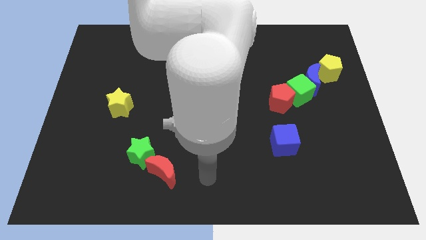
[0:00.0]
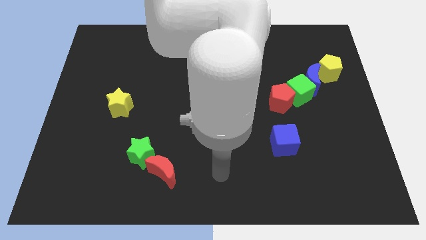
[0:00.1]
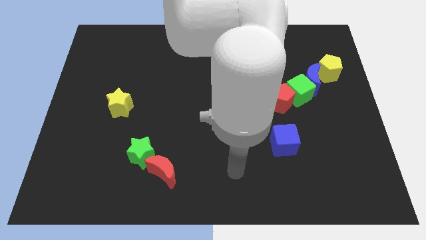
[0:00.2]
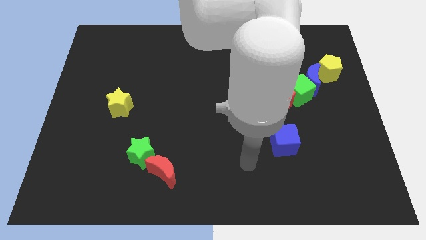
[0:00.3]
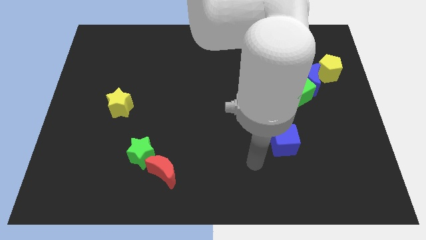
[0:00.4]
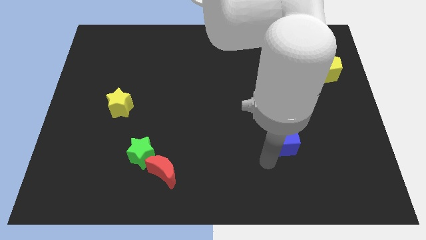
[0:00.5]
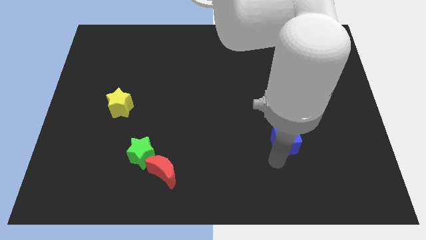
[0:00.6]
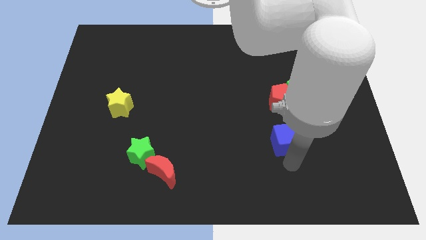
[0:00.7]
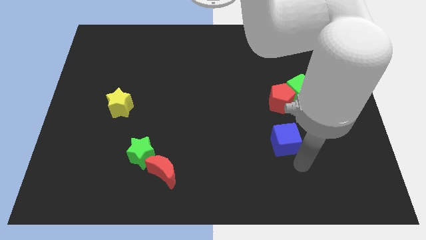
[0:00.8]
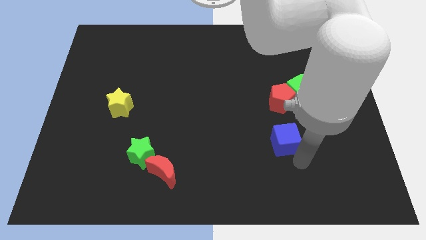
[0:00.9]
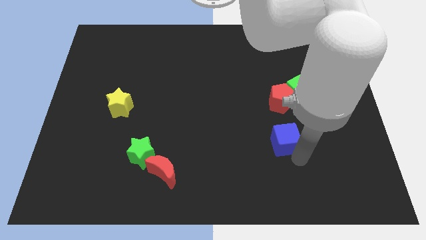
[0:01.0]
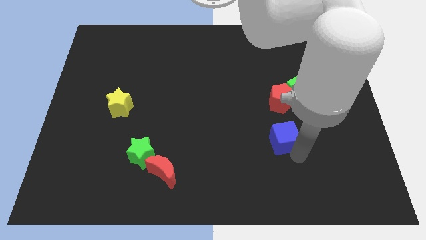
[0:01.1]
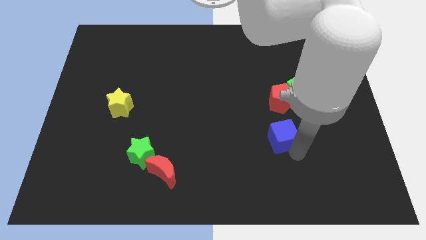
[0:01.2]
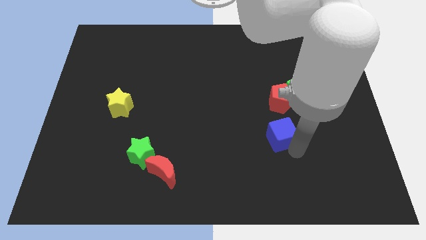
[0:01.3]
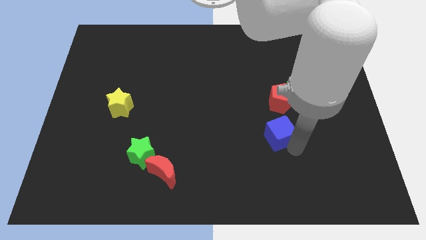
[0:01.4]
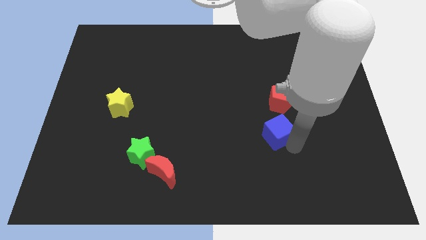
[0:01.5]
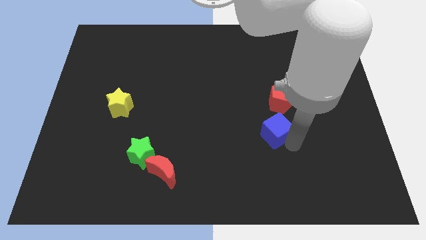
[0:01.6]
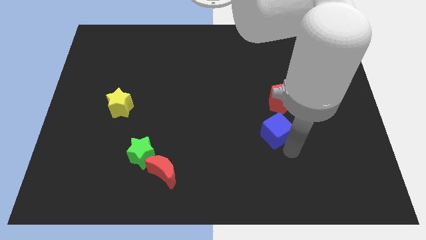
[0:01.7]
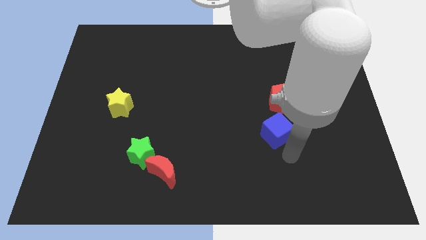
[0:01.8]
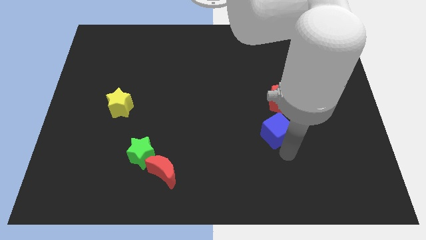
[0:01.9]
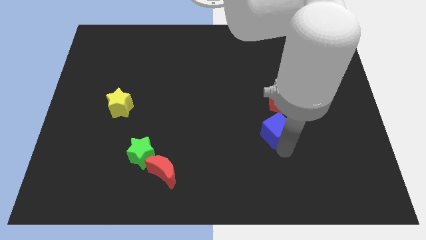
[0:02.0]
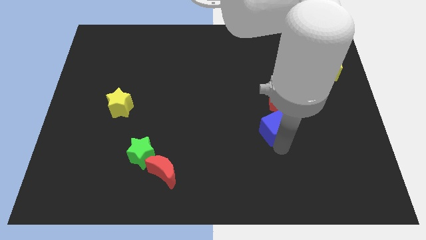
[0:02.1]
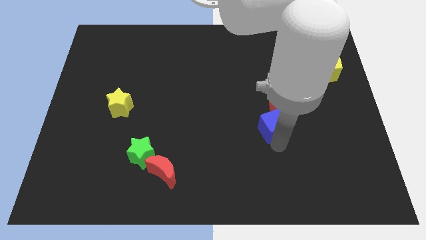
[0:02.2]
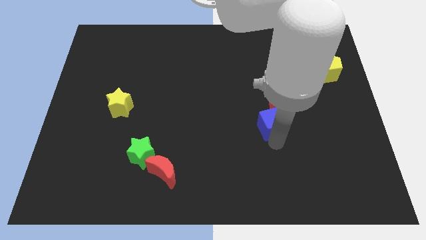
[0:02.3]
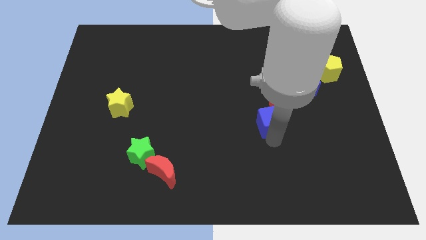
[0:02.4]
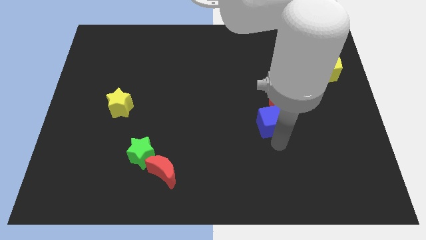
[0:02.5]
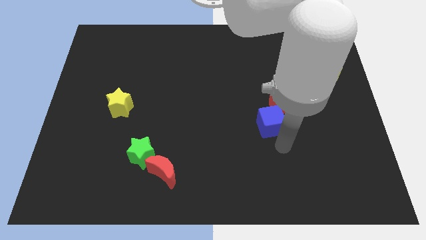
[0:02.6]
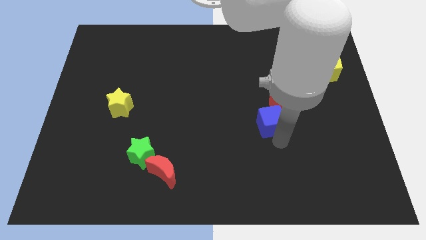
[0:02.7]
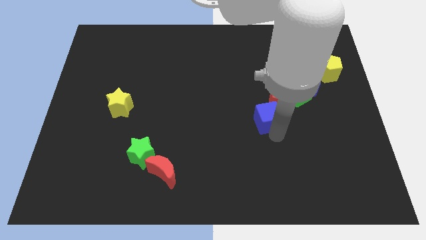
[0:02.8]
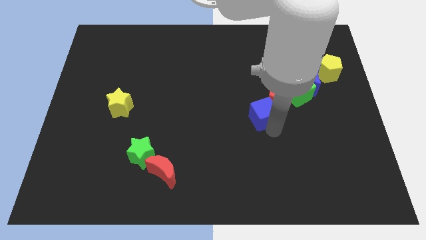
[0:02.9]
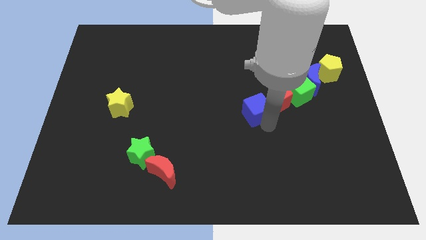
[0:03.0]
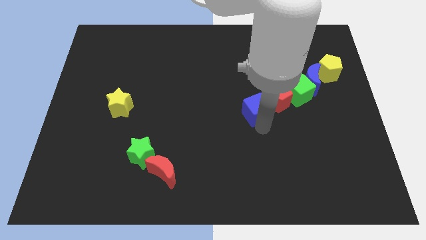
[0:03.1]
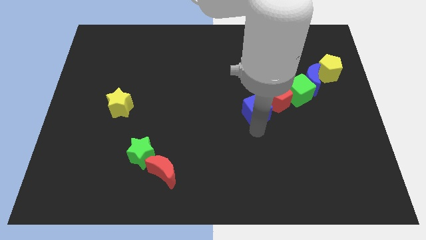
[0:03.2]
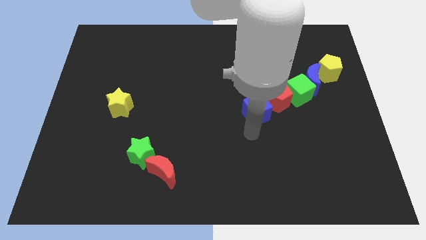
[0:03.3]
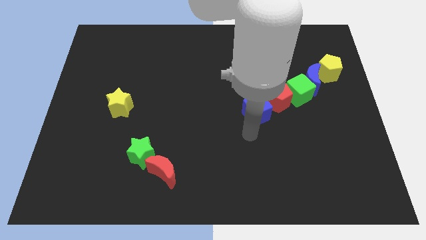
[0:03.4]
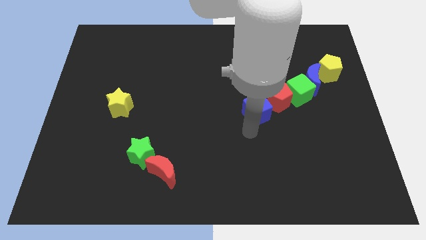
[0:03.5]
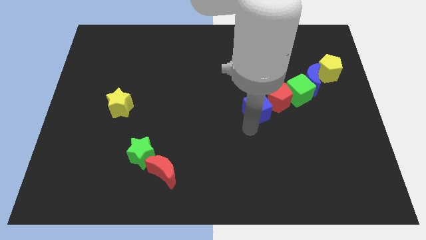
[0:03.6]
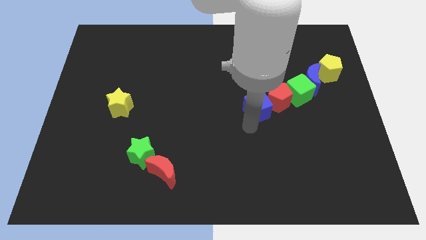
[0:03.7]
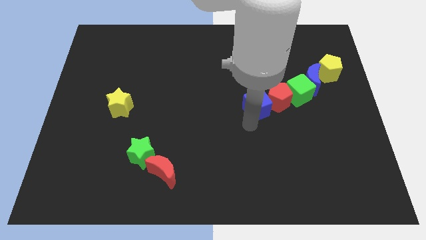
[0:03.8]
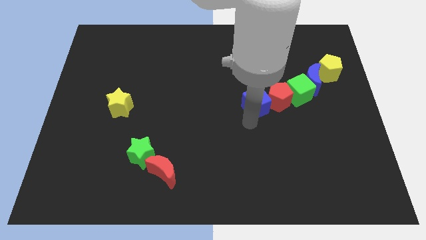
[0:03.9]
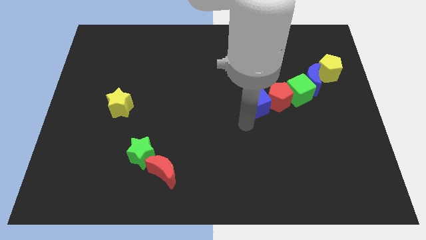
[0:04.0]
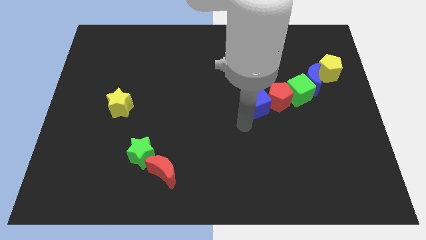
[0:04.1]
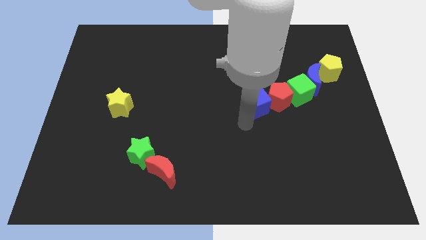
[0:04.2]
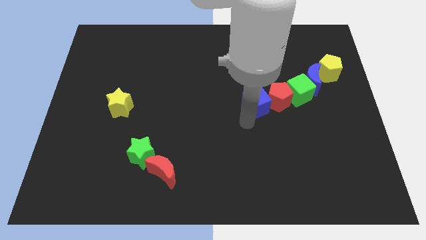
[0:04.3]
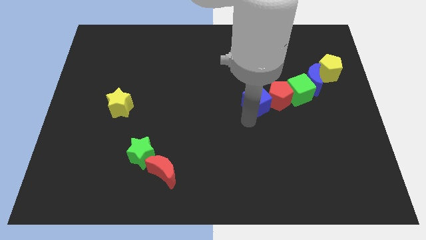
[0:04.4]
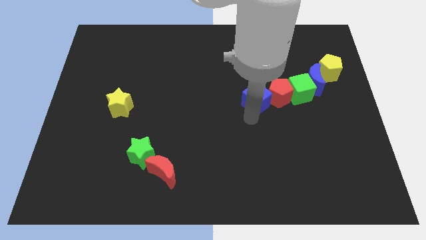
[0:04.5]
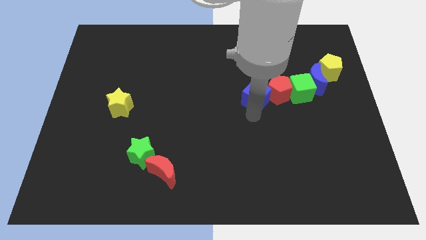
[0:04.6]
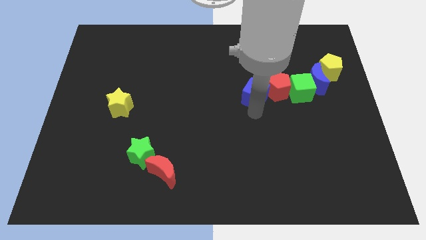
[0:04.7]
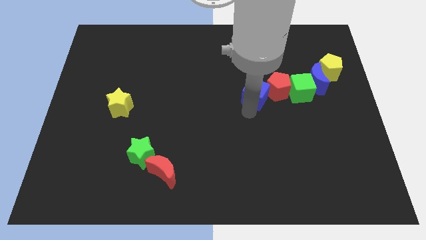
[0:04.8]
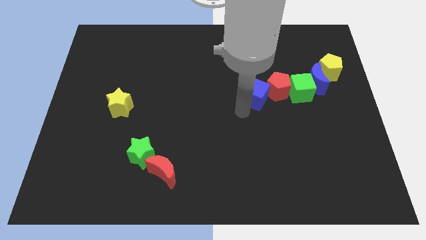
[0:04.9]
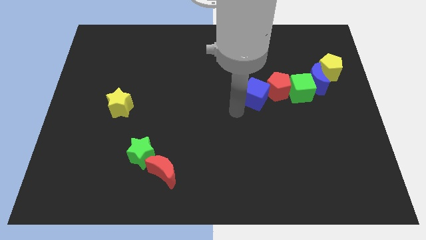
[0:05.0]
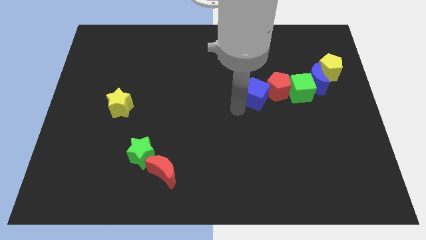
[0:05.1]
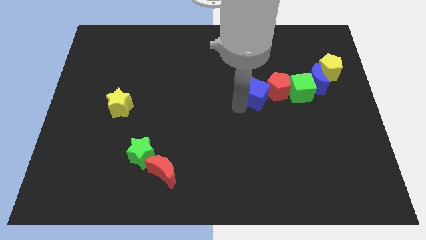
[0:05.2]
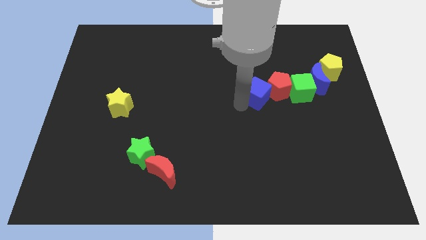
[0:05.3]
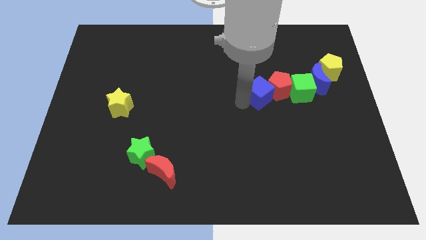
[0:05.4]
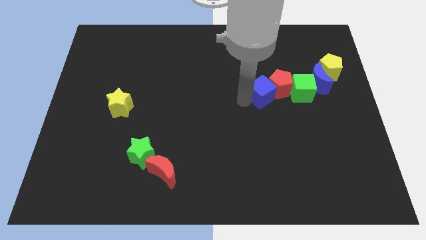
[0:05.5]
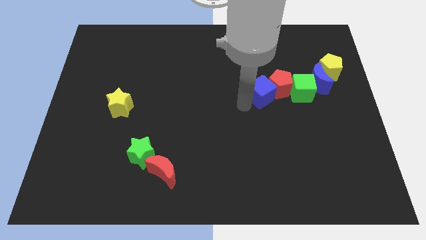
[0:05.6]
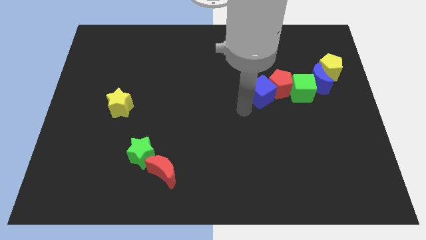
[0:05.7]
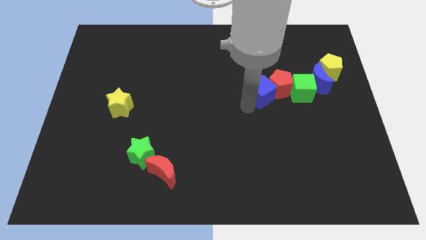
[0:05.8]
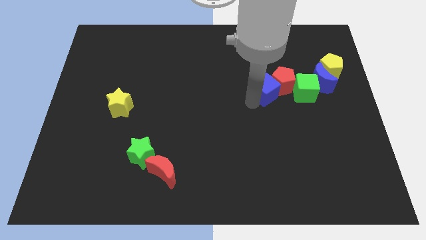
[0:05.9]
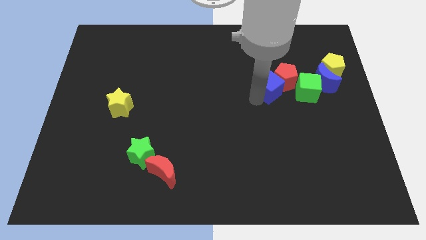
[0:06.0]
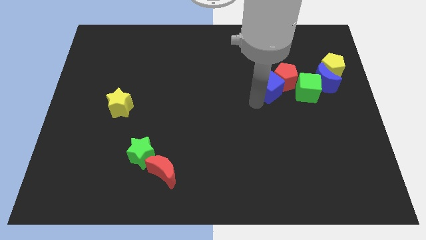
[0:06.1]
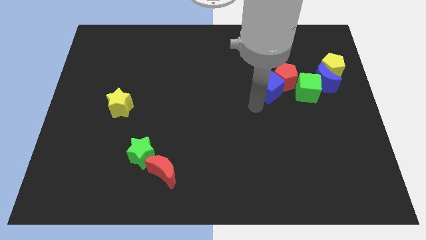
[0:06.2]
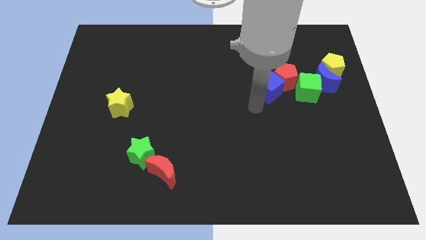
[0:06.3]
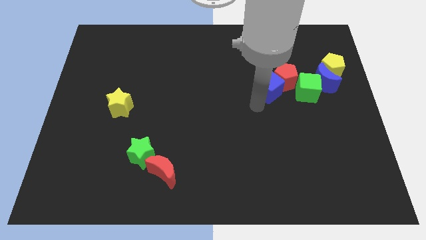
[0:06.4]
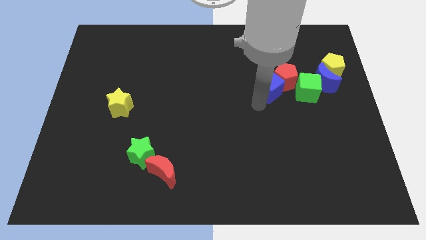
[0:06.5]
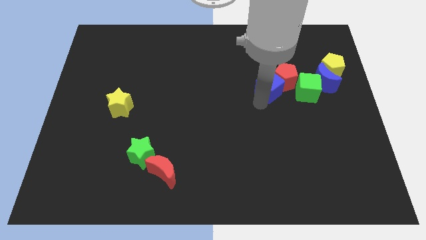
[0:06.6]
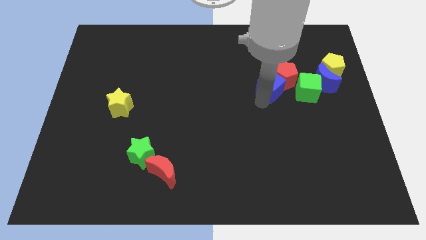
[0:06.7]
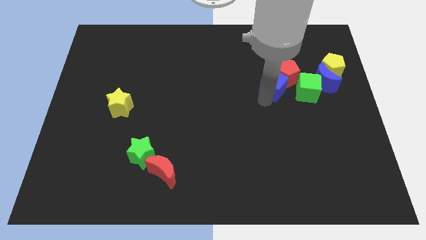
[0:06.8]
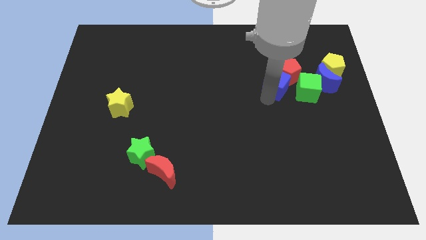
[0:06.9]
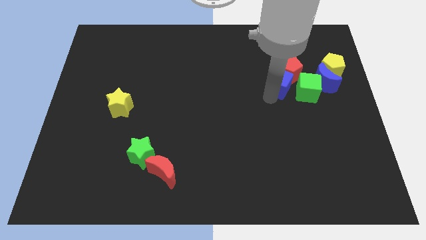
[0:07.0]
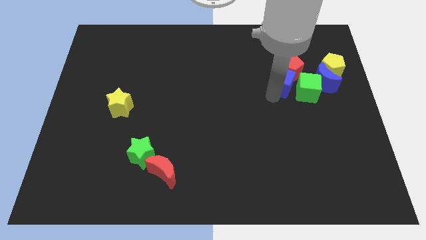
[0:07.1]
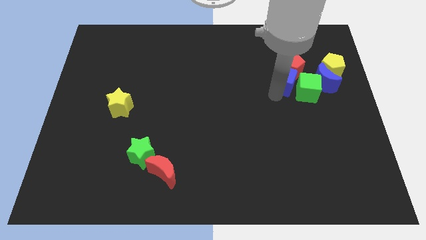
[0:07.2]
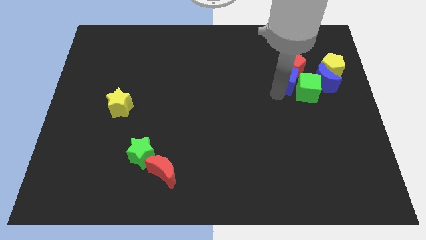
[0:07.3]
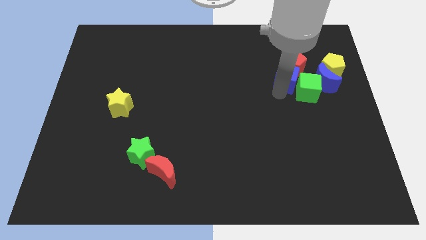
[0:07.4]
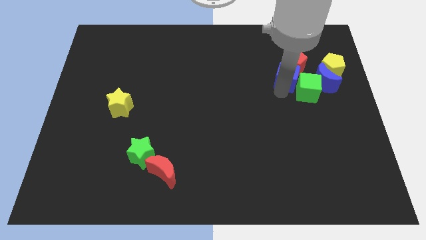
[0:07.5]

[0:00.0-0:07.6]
move the blue cube to the top side of the green cube
